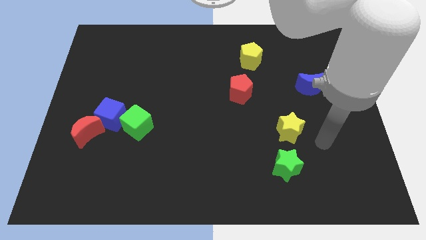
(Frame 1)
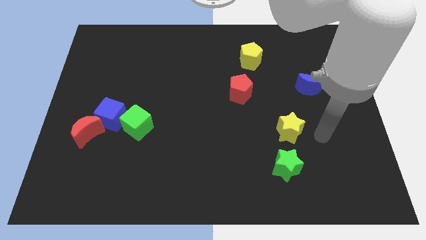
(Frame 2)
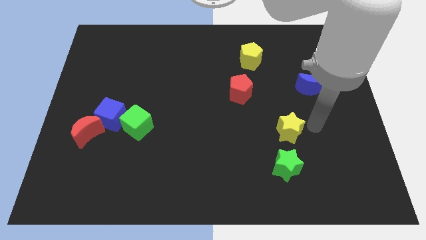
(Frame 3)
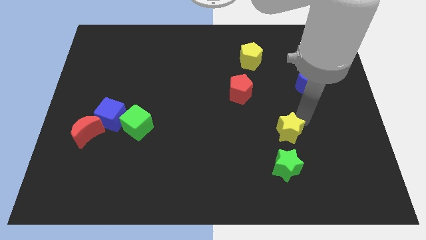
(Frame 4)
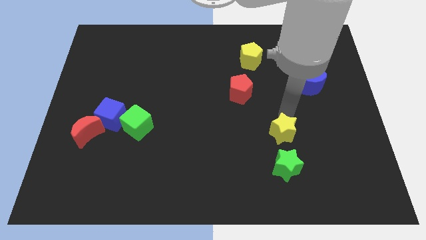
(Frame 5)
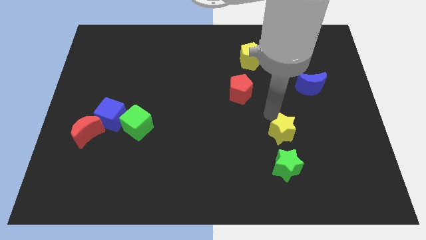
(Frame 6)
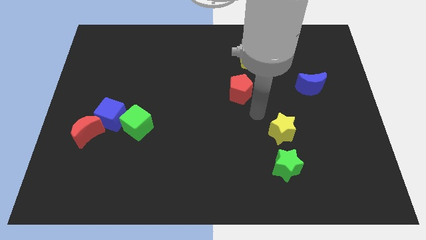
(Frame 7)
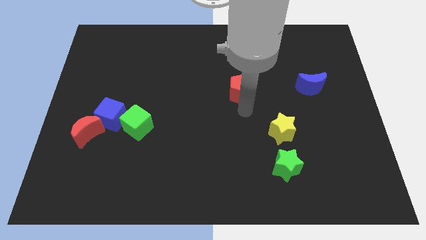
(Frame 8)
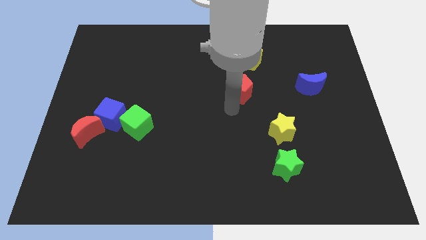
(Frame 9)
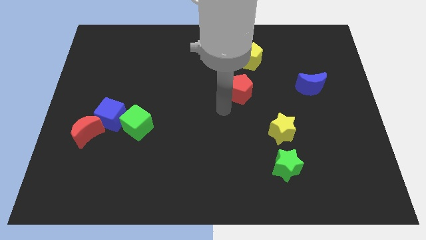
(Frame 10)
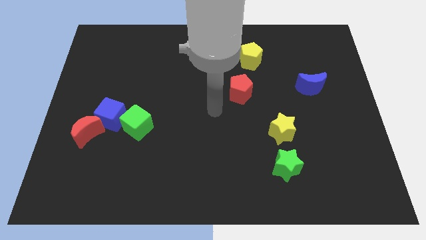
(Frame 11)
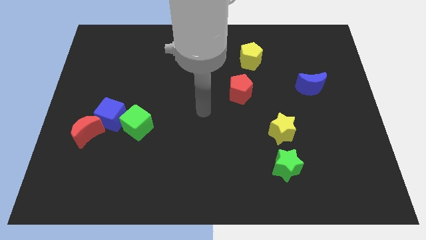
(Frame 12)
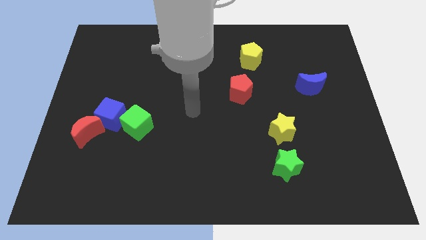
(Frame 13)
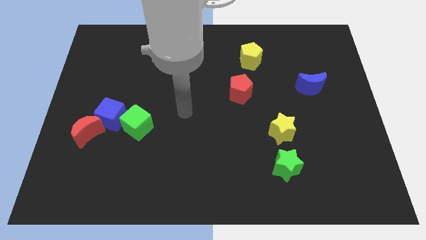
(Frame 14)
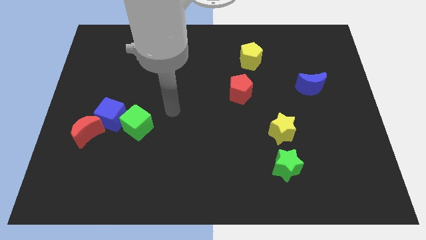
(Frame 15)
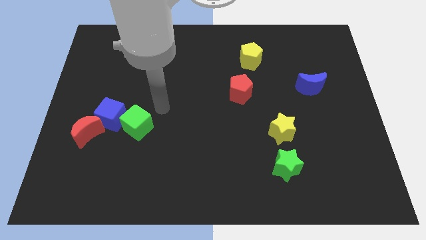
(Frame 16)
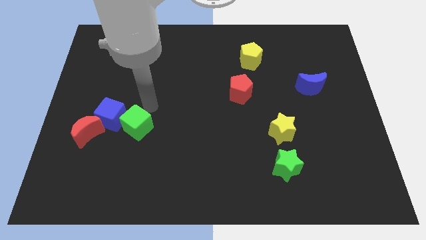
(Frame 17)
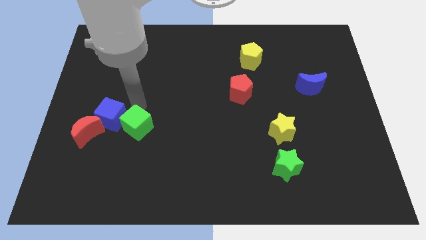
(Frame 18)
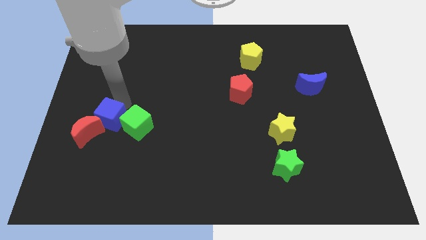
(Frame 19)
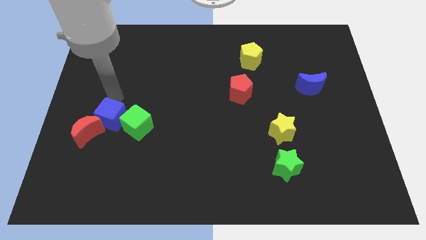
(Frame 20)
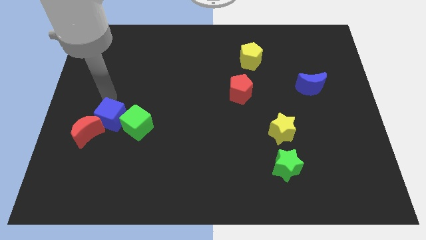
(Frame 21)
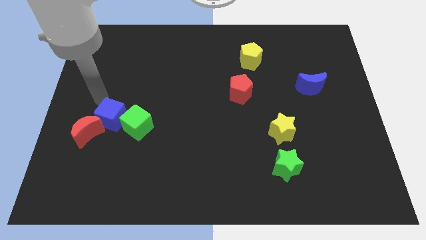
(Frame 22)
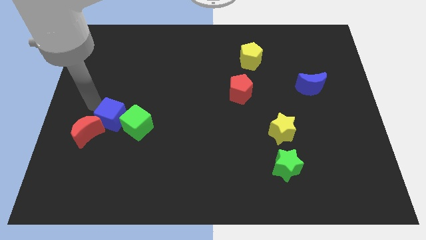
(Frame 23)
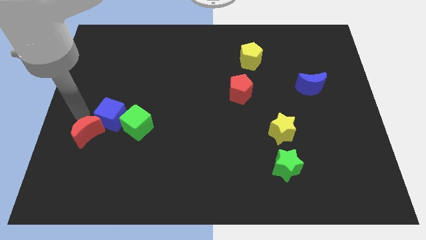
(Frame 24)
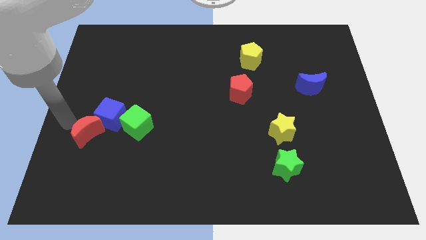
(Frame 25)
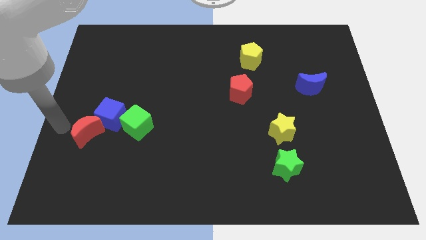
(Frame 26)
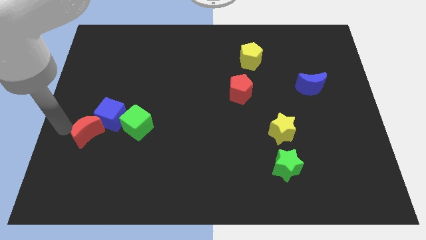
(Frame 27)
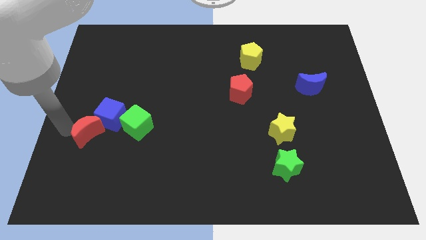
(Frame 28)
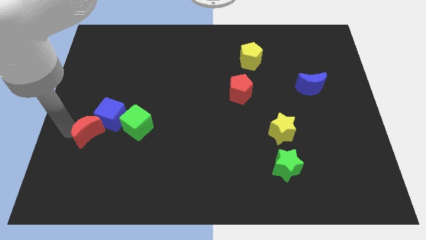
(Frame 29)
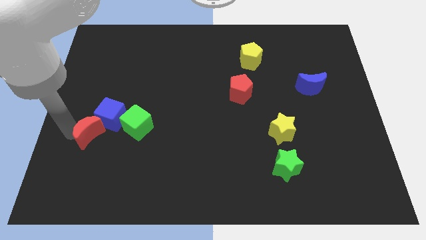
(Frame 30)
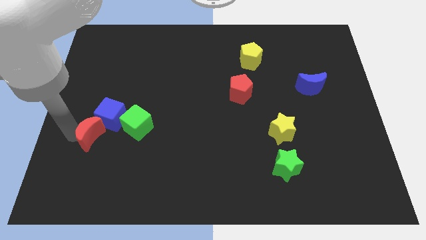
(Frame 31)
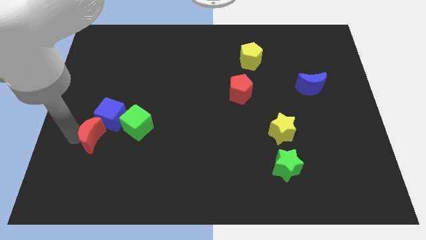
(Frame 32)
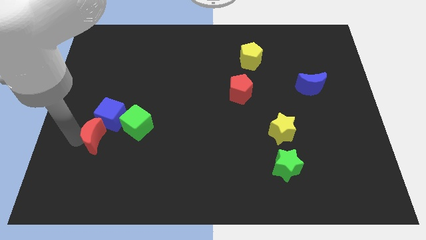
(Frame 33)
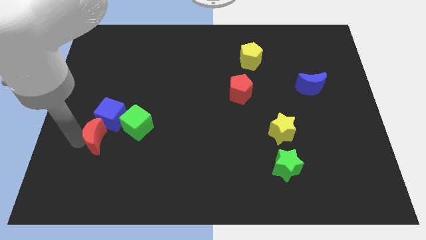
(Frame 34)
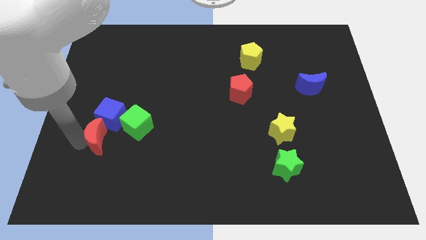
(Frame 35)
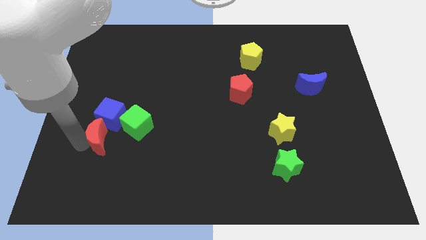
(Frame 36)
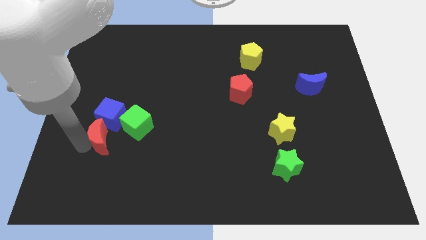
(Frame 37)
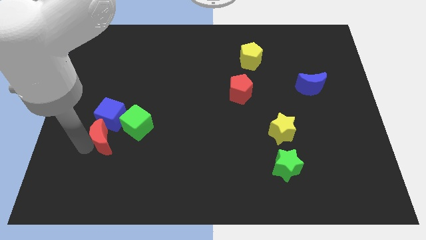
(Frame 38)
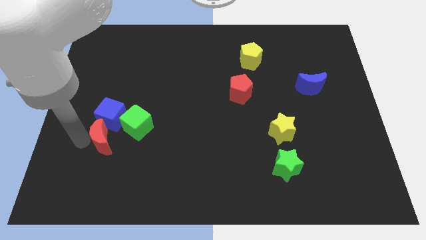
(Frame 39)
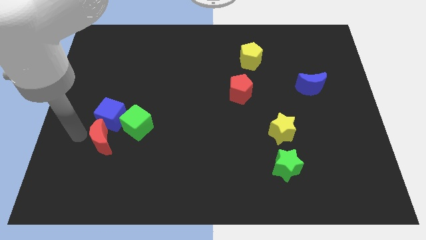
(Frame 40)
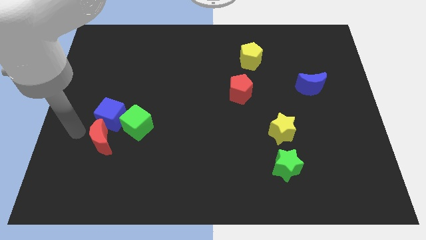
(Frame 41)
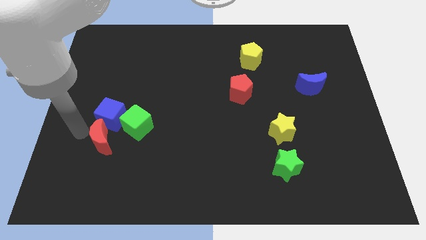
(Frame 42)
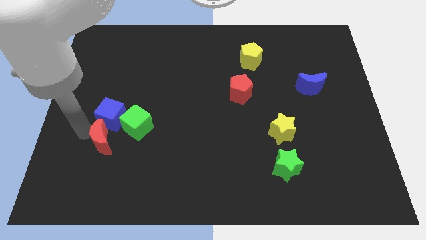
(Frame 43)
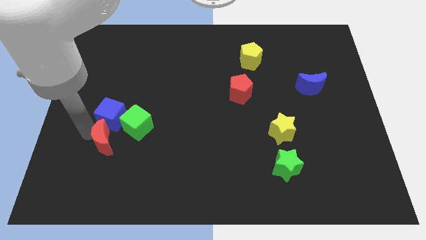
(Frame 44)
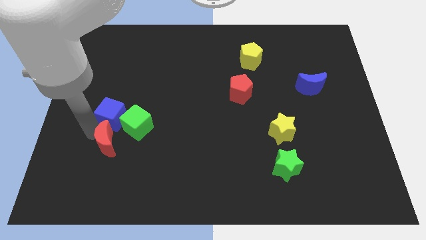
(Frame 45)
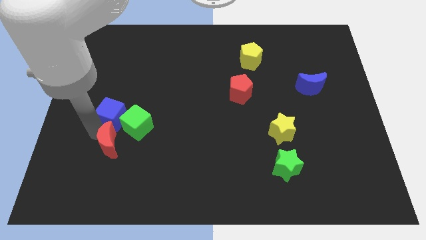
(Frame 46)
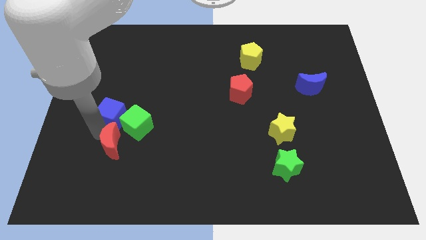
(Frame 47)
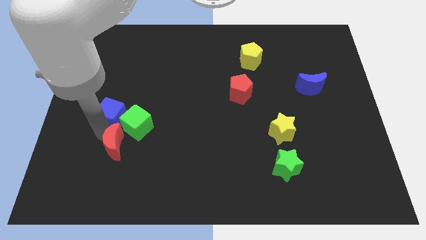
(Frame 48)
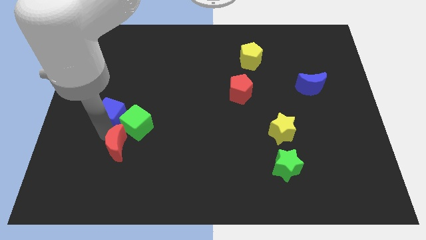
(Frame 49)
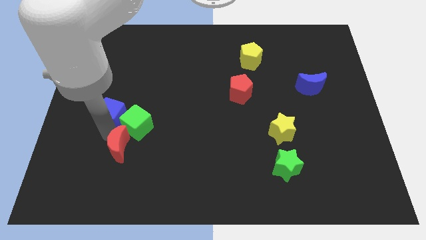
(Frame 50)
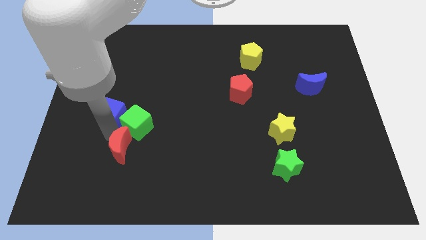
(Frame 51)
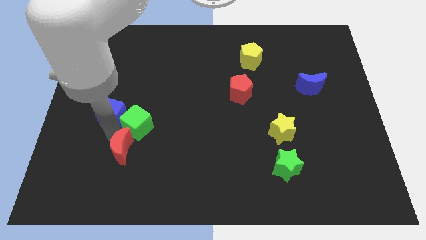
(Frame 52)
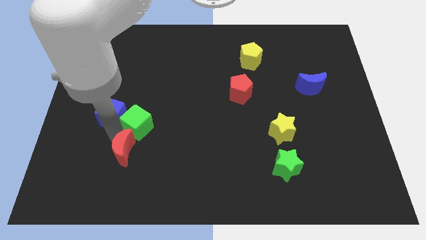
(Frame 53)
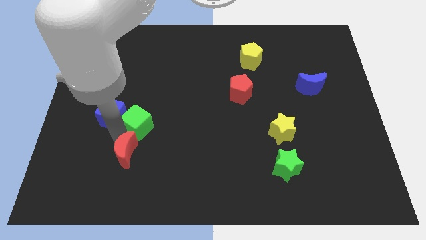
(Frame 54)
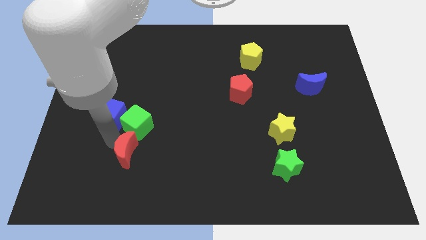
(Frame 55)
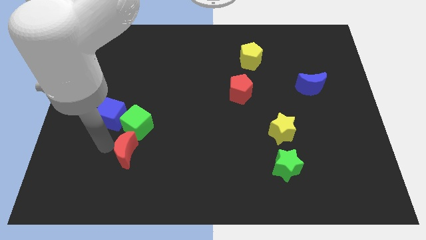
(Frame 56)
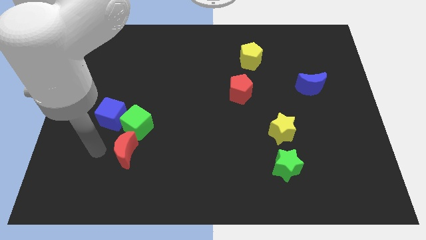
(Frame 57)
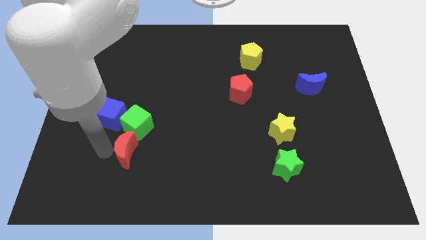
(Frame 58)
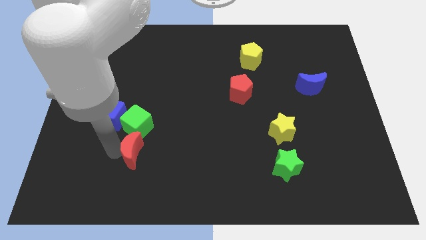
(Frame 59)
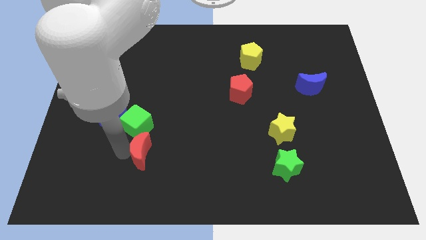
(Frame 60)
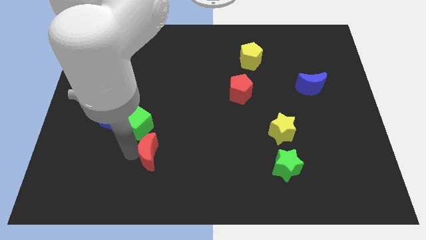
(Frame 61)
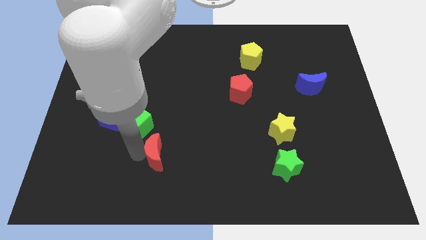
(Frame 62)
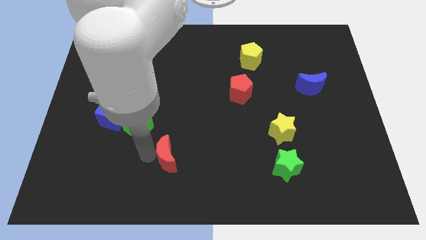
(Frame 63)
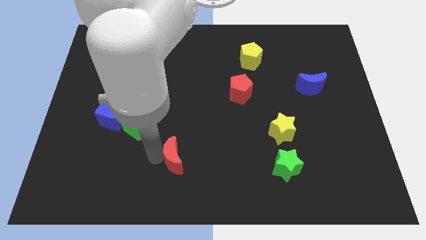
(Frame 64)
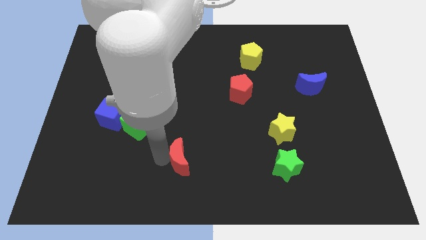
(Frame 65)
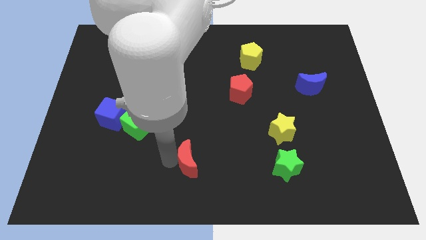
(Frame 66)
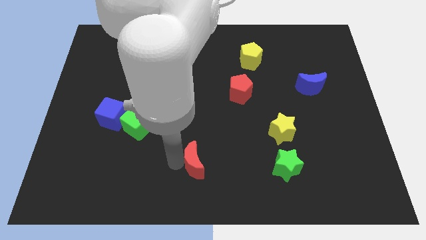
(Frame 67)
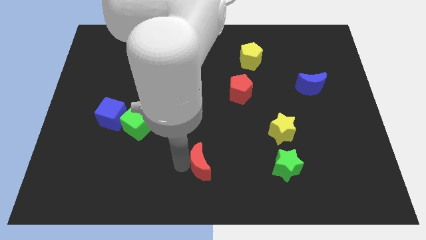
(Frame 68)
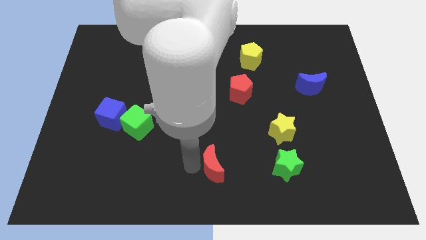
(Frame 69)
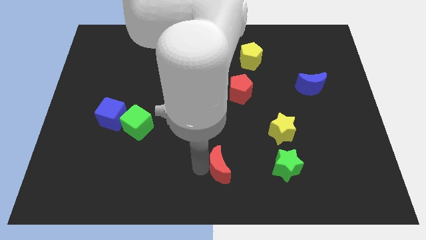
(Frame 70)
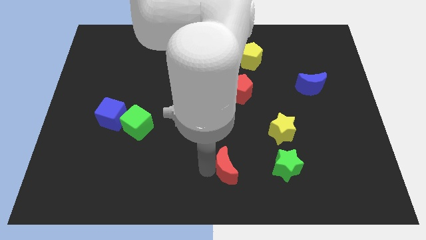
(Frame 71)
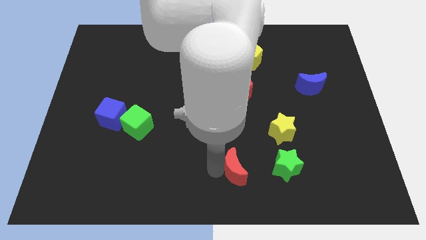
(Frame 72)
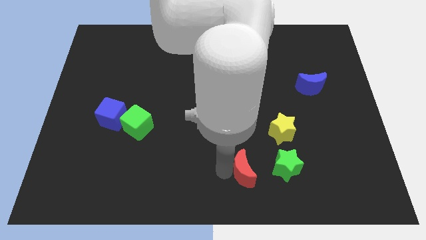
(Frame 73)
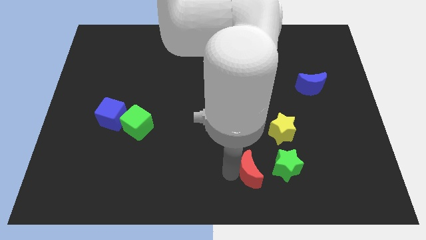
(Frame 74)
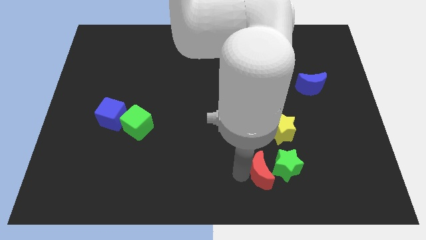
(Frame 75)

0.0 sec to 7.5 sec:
slide the red moon to the green star
